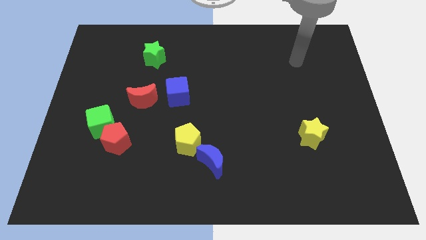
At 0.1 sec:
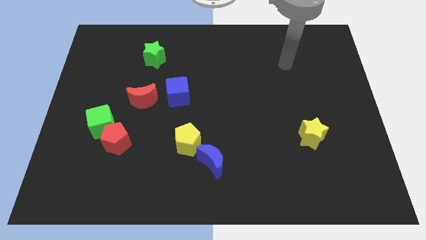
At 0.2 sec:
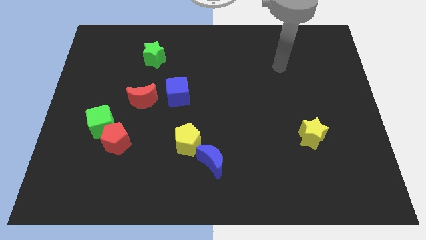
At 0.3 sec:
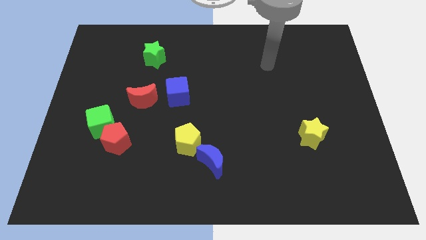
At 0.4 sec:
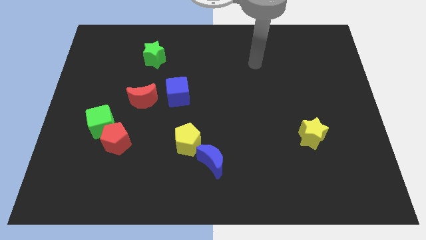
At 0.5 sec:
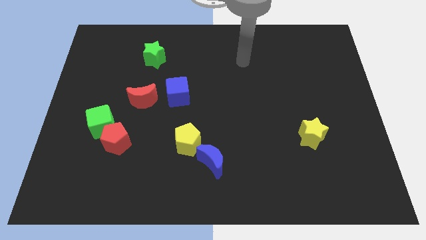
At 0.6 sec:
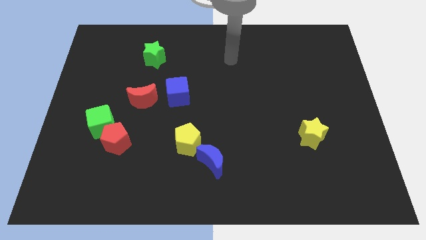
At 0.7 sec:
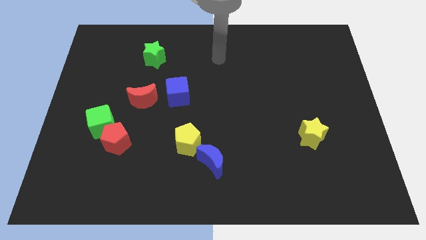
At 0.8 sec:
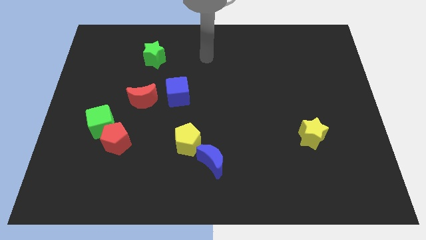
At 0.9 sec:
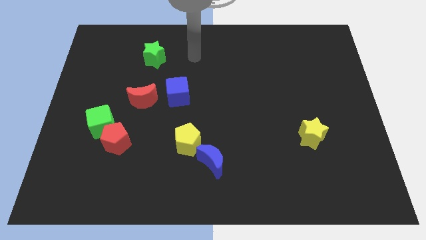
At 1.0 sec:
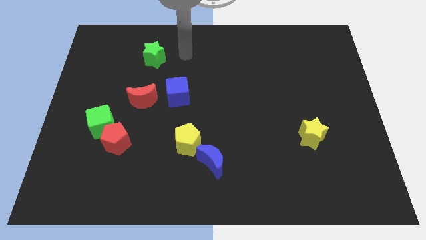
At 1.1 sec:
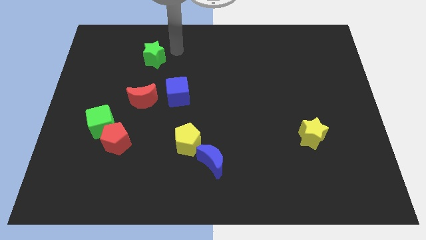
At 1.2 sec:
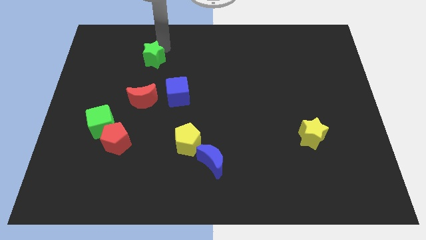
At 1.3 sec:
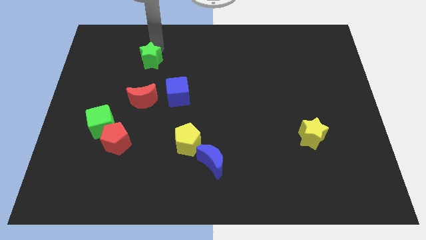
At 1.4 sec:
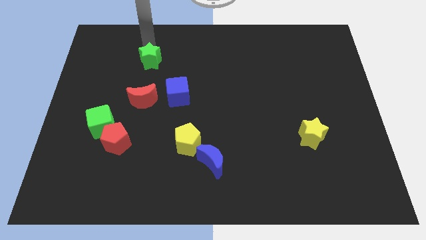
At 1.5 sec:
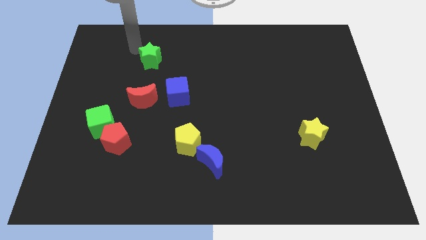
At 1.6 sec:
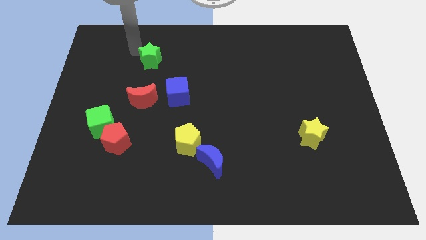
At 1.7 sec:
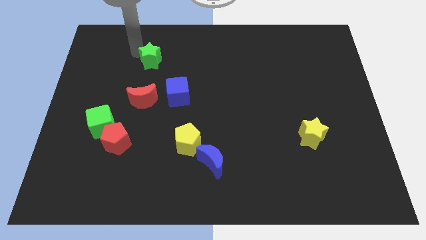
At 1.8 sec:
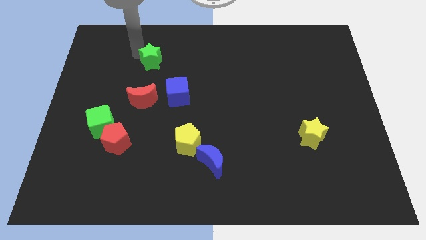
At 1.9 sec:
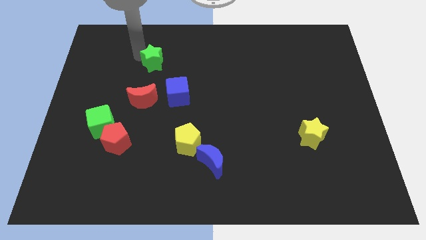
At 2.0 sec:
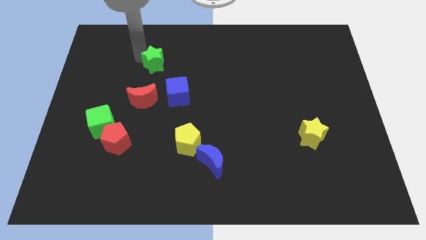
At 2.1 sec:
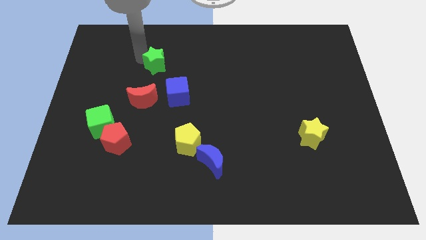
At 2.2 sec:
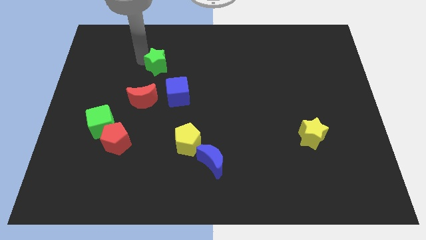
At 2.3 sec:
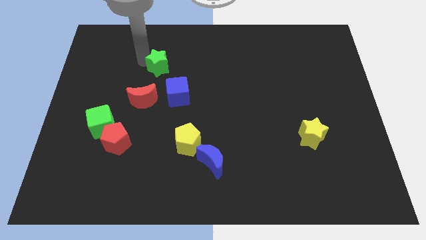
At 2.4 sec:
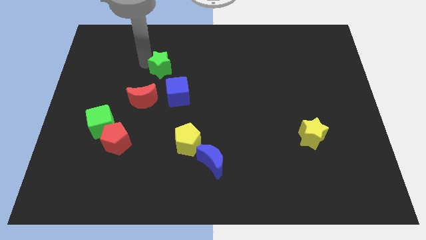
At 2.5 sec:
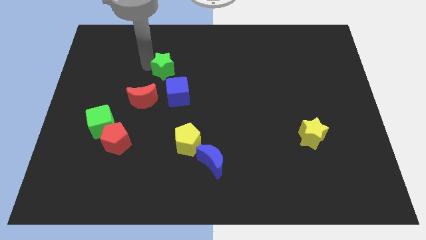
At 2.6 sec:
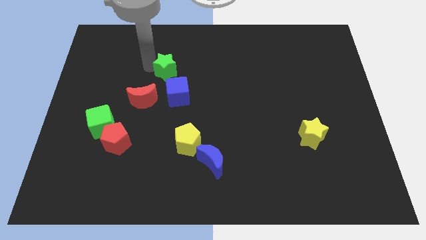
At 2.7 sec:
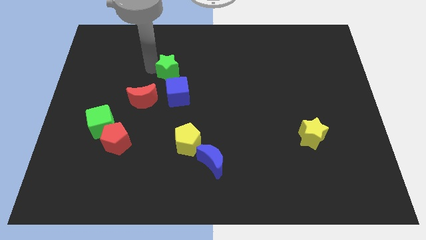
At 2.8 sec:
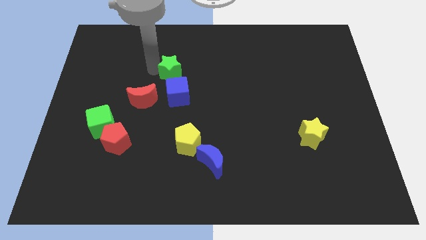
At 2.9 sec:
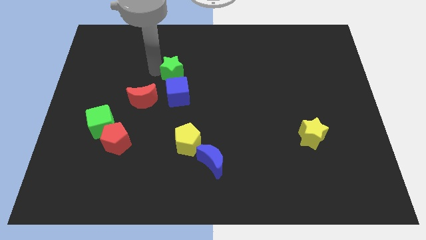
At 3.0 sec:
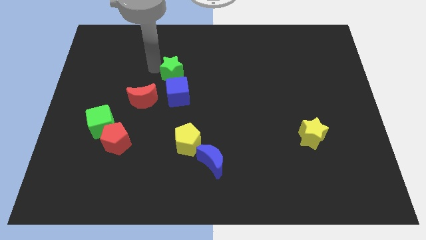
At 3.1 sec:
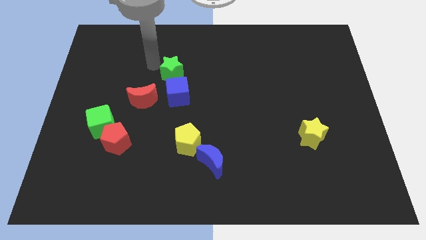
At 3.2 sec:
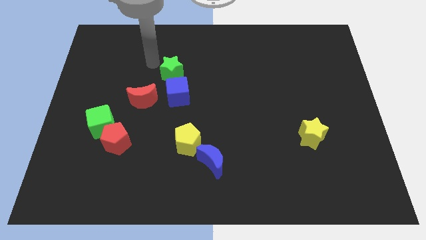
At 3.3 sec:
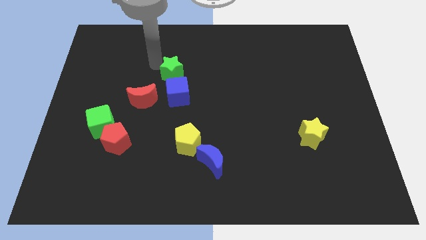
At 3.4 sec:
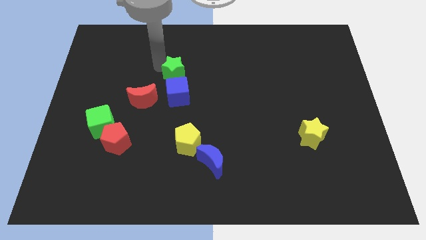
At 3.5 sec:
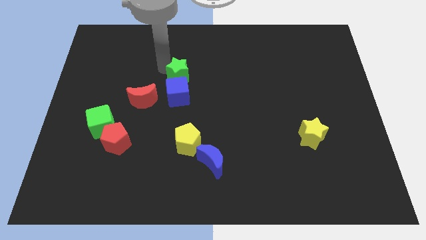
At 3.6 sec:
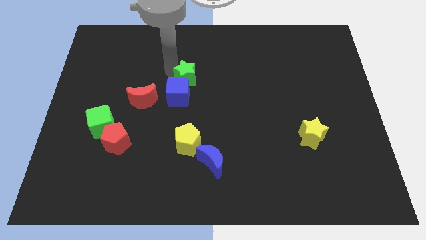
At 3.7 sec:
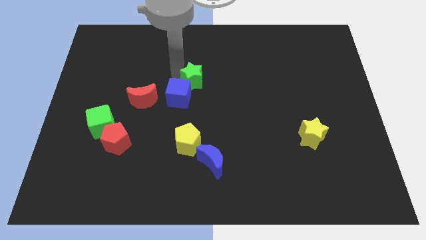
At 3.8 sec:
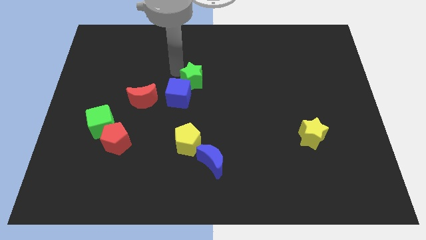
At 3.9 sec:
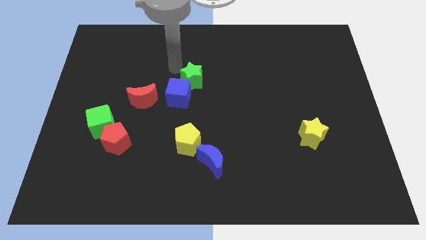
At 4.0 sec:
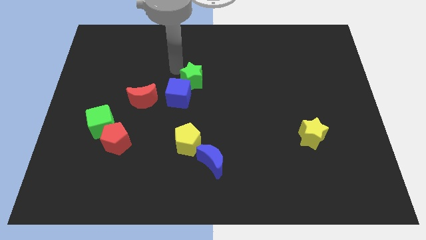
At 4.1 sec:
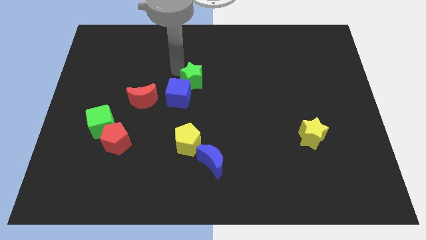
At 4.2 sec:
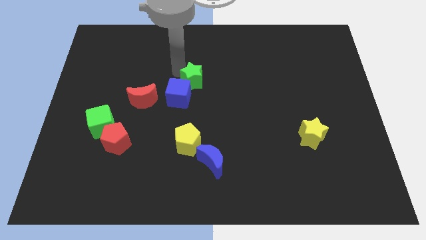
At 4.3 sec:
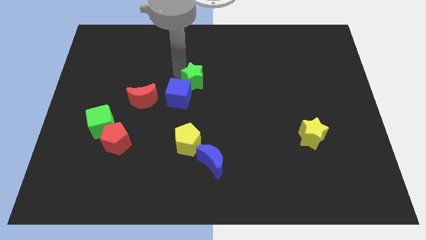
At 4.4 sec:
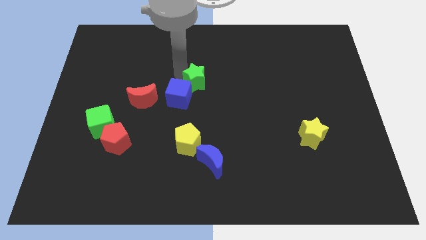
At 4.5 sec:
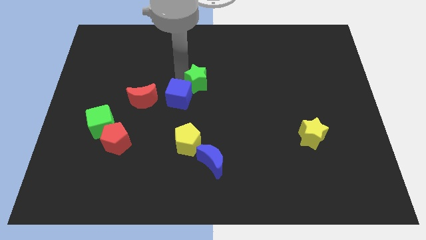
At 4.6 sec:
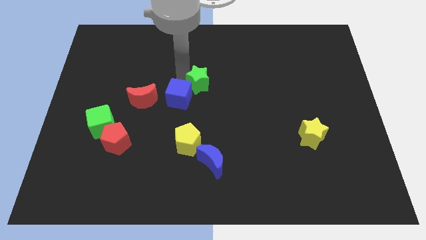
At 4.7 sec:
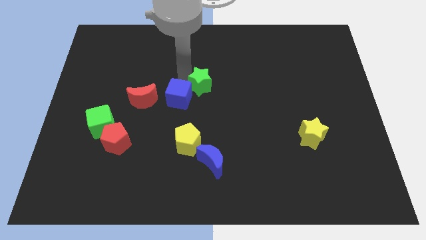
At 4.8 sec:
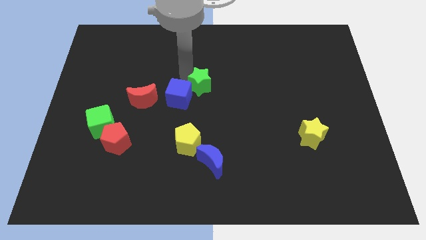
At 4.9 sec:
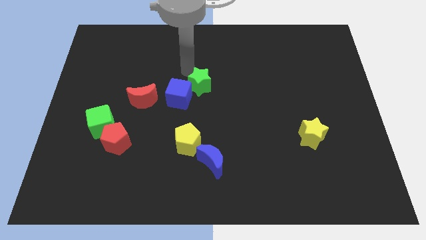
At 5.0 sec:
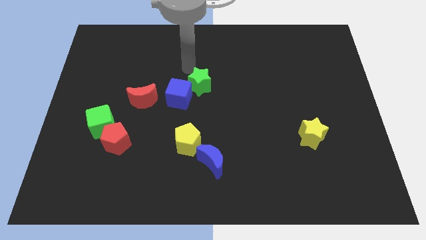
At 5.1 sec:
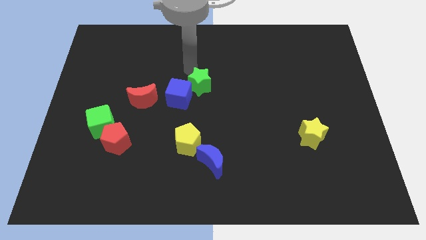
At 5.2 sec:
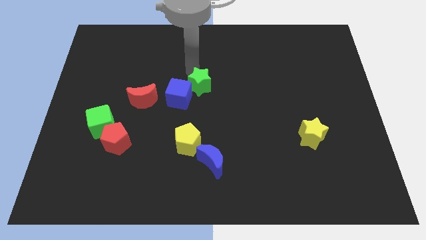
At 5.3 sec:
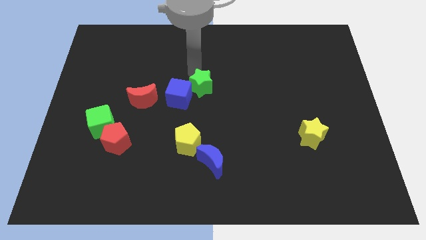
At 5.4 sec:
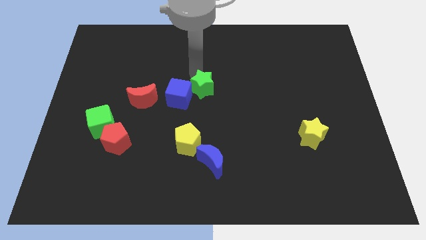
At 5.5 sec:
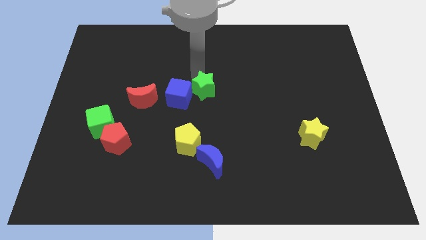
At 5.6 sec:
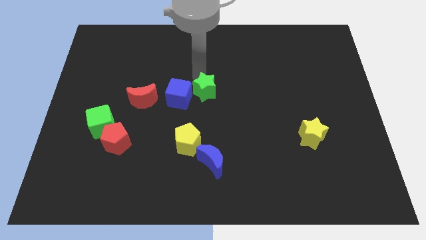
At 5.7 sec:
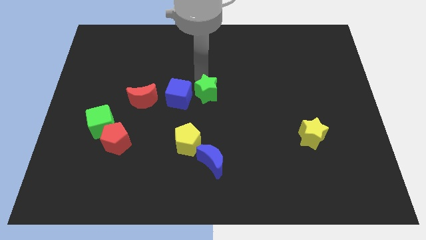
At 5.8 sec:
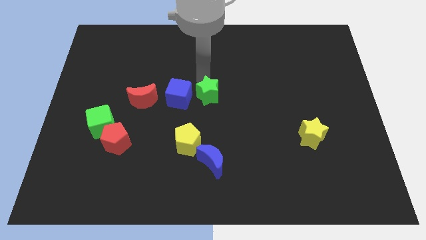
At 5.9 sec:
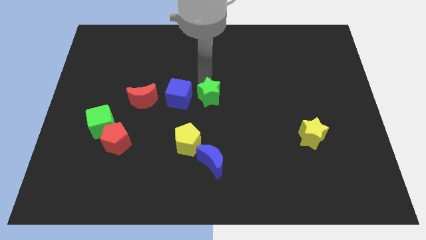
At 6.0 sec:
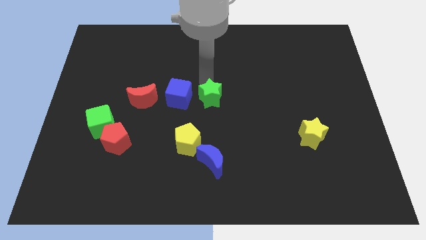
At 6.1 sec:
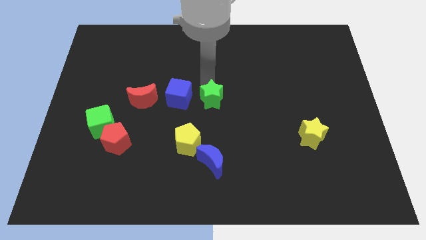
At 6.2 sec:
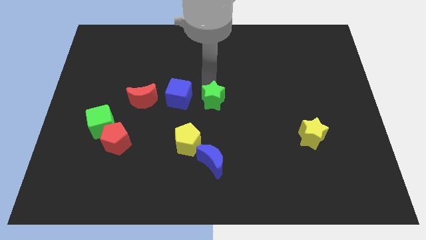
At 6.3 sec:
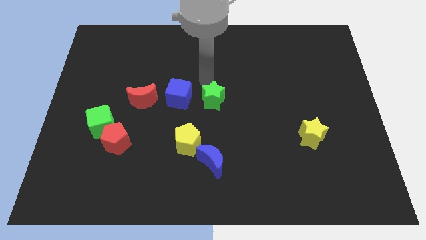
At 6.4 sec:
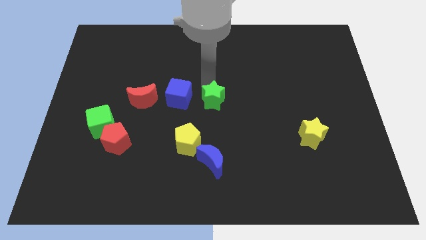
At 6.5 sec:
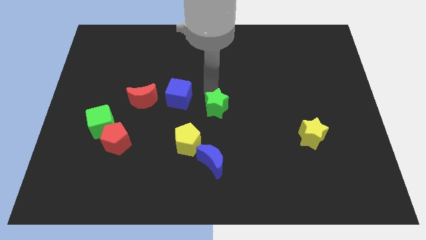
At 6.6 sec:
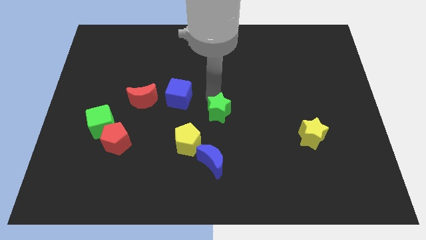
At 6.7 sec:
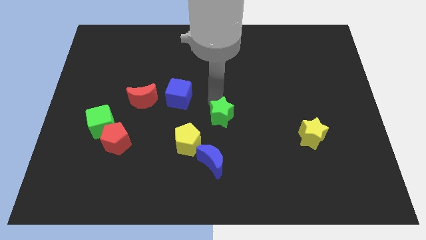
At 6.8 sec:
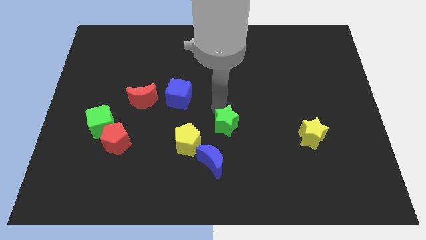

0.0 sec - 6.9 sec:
move the green star to the right side of the yellow pentagon
